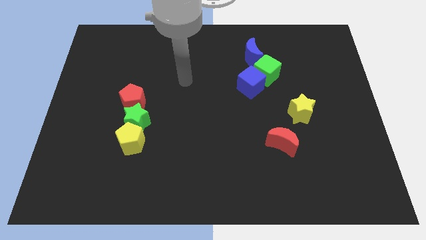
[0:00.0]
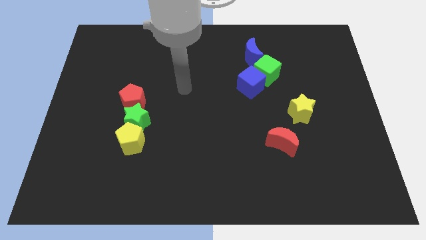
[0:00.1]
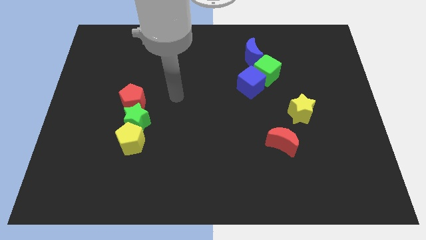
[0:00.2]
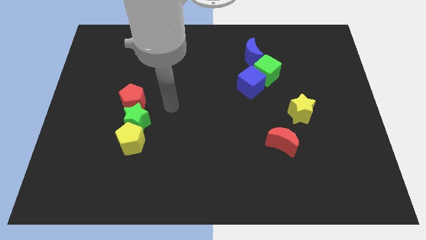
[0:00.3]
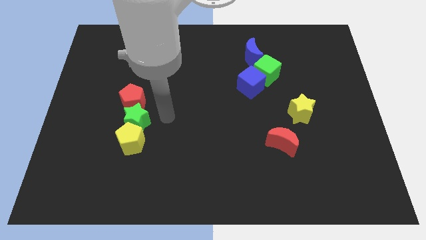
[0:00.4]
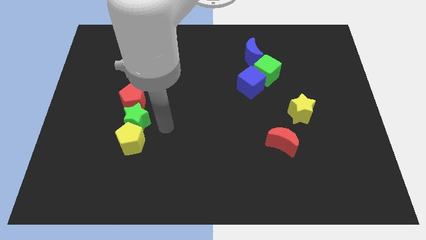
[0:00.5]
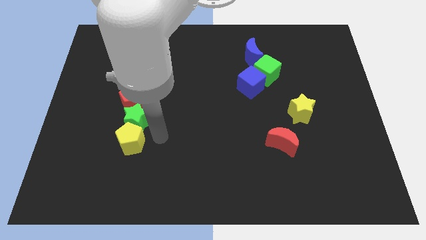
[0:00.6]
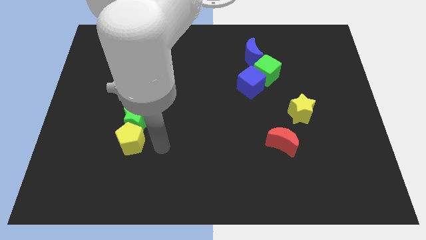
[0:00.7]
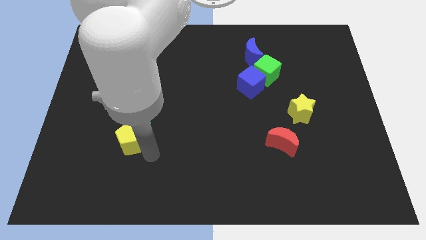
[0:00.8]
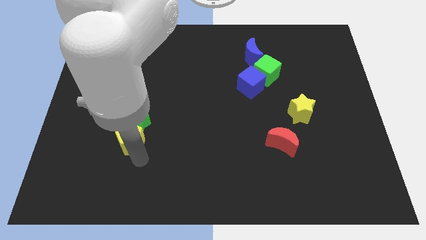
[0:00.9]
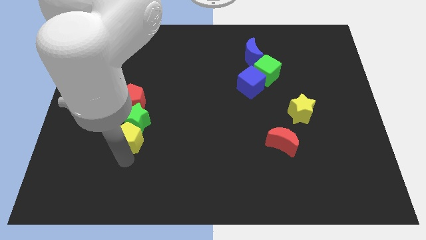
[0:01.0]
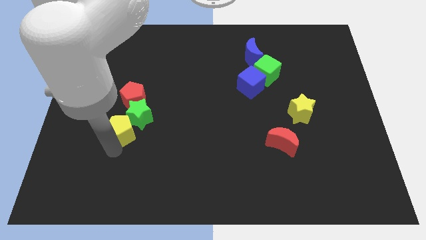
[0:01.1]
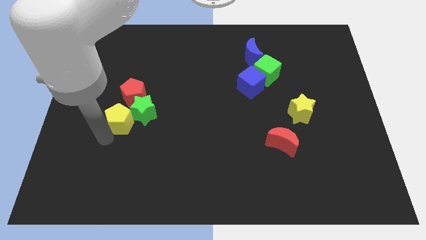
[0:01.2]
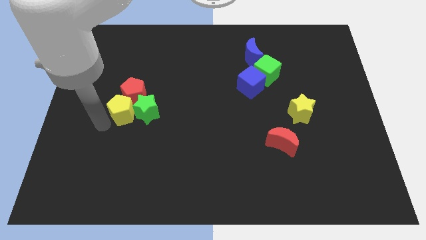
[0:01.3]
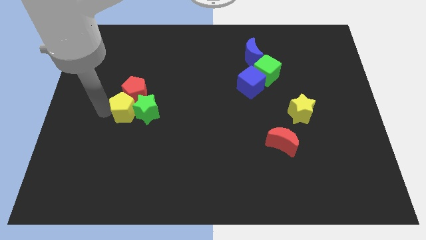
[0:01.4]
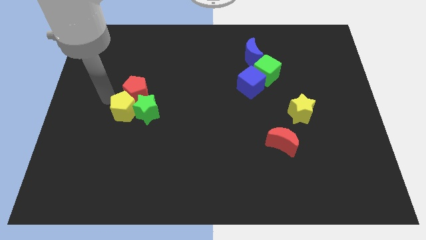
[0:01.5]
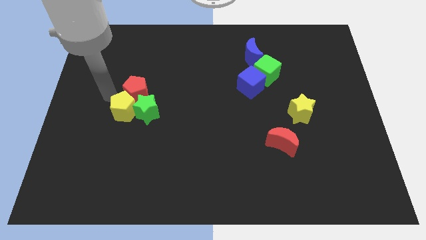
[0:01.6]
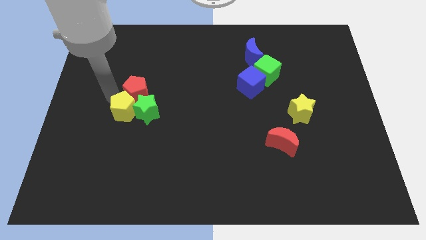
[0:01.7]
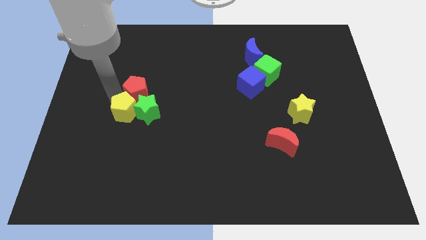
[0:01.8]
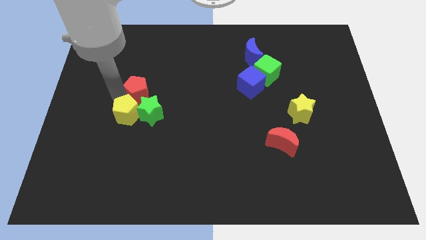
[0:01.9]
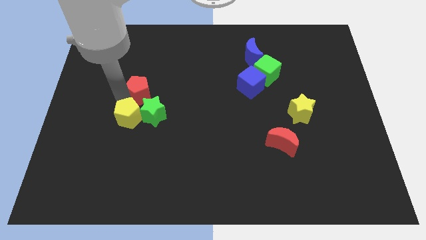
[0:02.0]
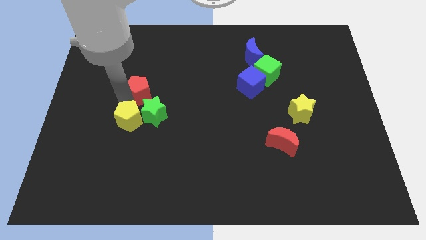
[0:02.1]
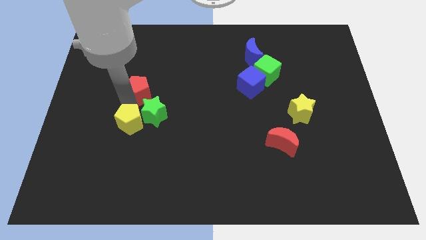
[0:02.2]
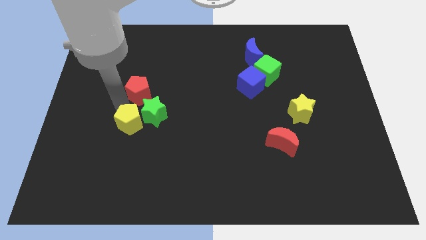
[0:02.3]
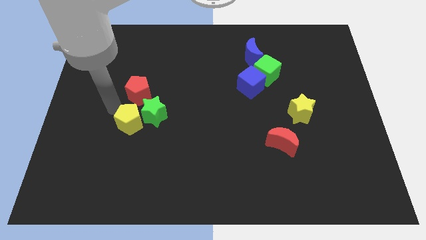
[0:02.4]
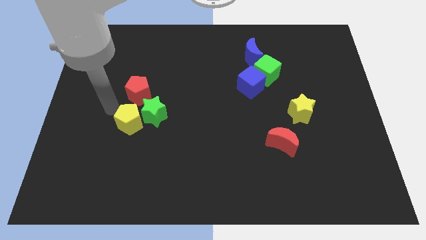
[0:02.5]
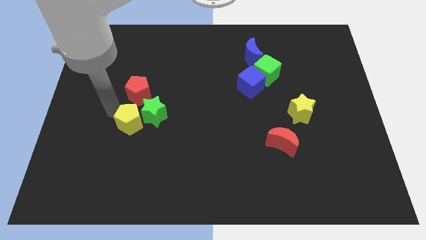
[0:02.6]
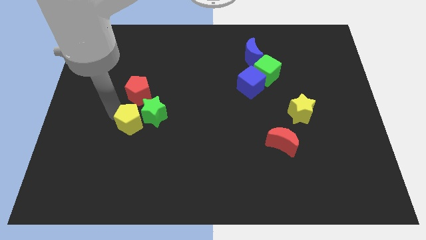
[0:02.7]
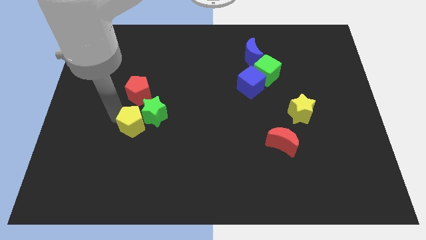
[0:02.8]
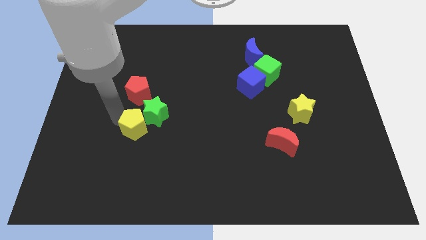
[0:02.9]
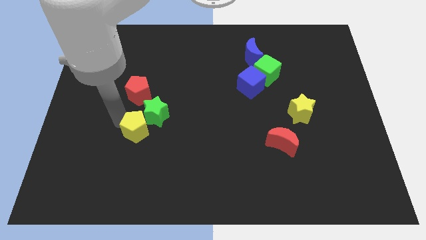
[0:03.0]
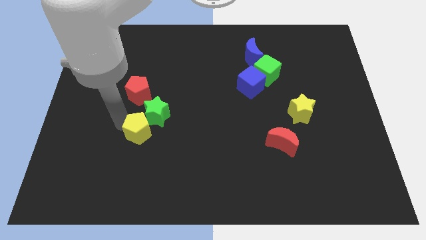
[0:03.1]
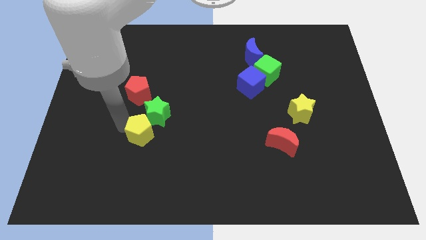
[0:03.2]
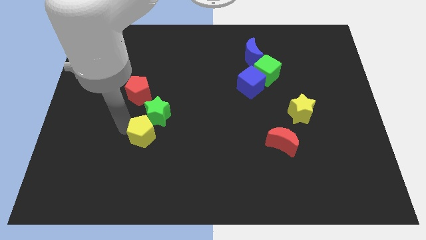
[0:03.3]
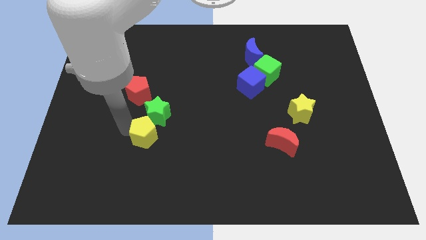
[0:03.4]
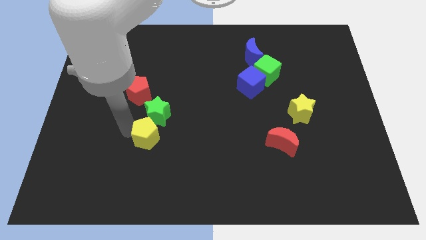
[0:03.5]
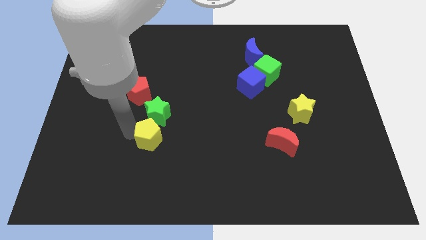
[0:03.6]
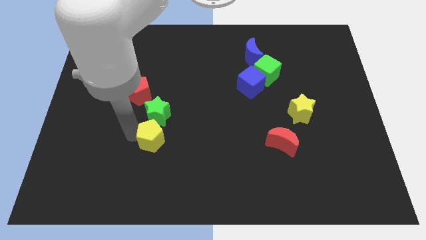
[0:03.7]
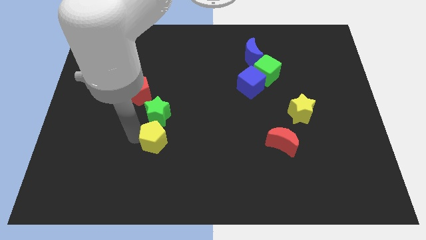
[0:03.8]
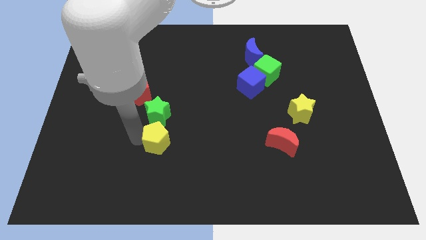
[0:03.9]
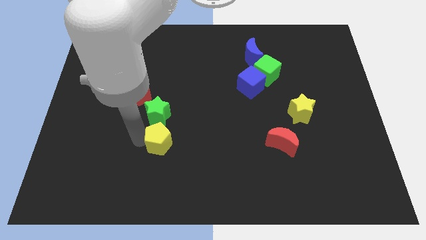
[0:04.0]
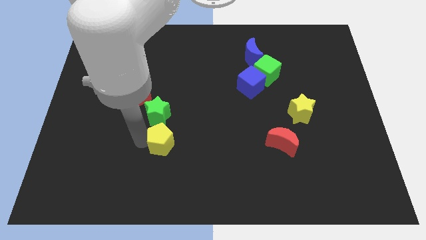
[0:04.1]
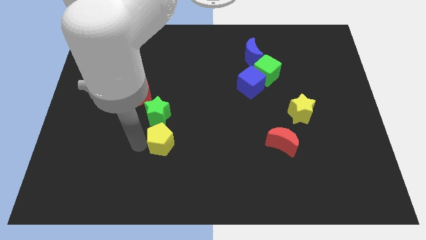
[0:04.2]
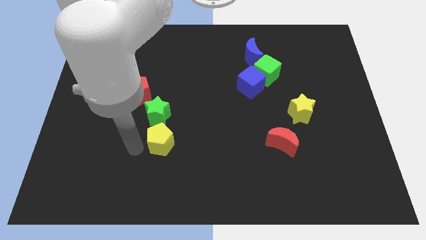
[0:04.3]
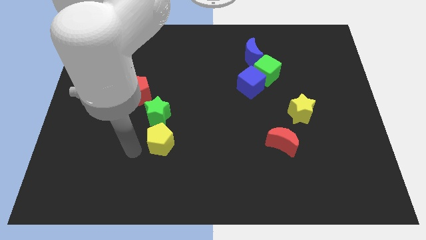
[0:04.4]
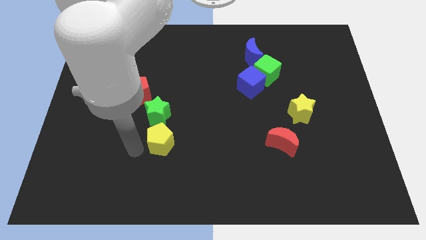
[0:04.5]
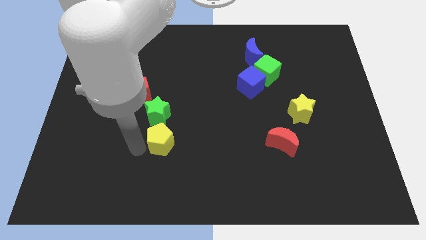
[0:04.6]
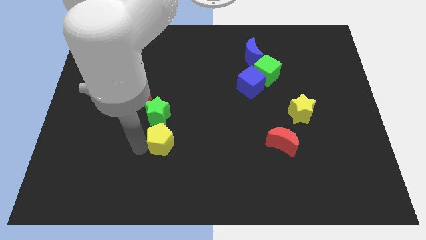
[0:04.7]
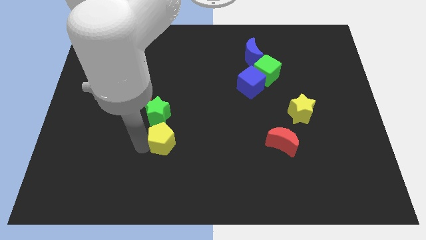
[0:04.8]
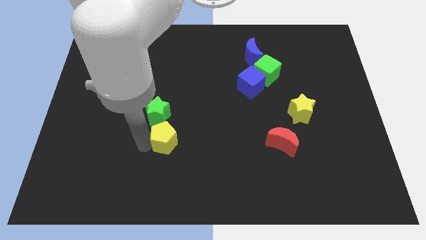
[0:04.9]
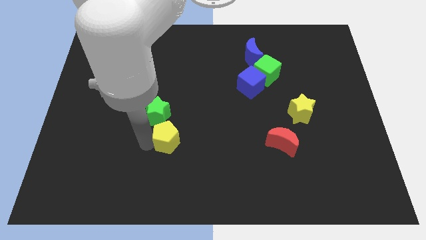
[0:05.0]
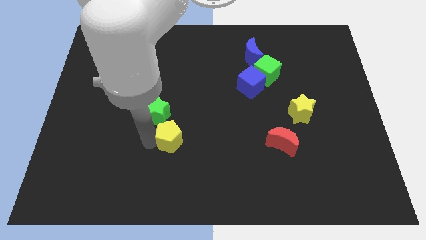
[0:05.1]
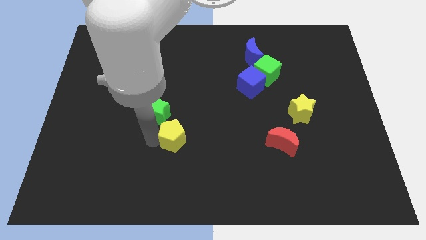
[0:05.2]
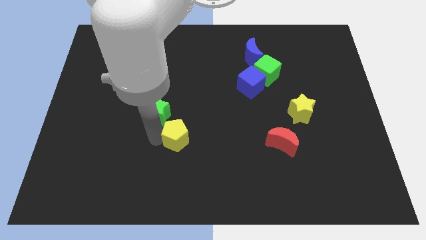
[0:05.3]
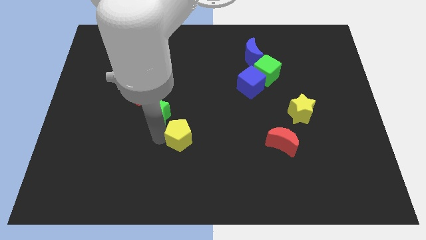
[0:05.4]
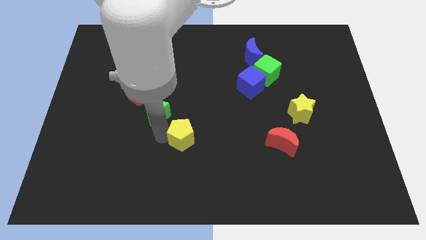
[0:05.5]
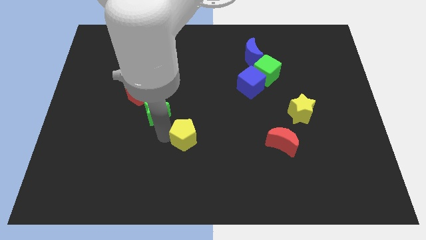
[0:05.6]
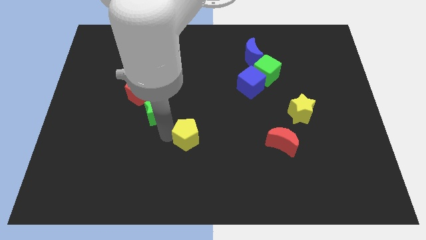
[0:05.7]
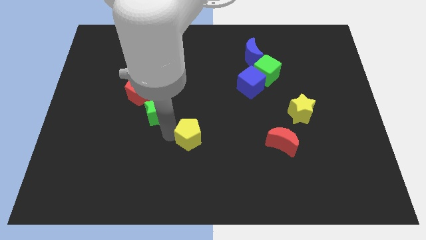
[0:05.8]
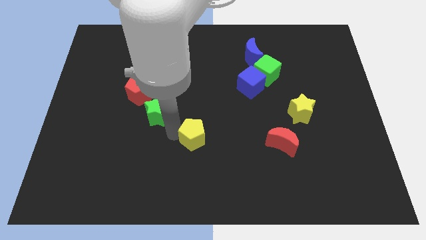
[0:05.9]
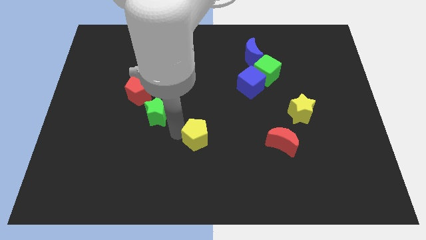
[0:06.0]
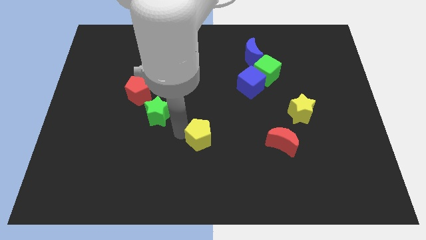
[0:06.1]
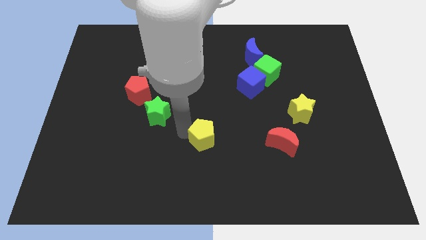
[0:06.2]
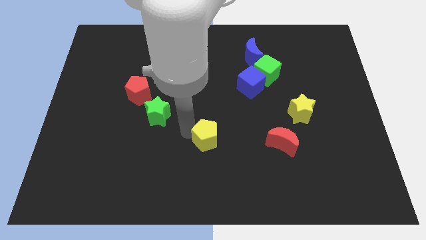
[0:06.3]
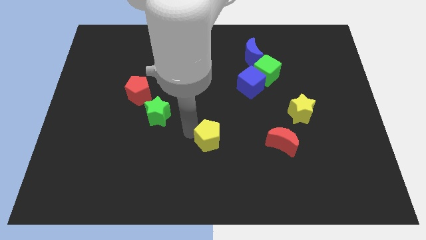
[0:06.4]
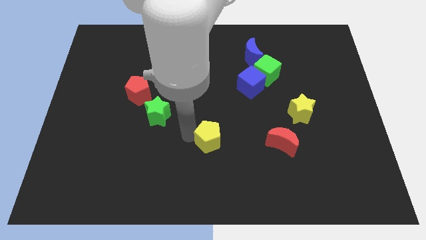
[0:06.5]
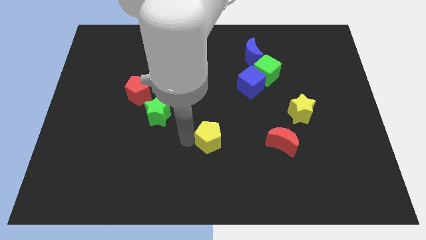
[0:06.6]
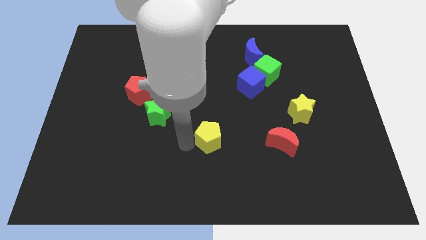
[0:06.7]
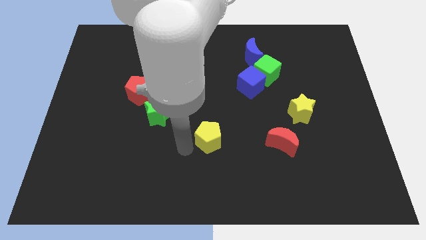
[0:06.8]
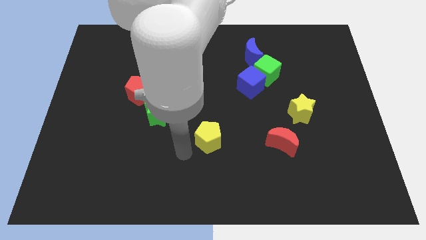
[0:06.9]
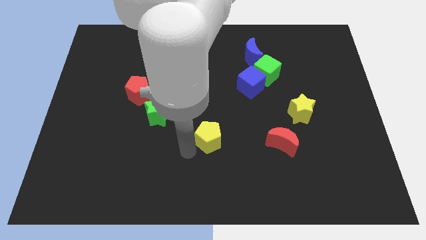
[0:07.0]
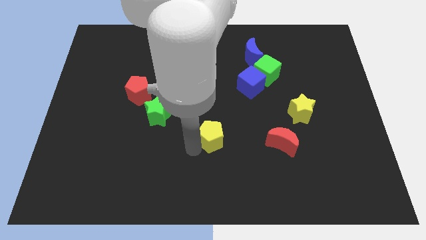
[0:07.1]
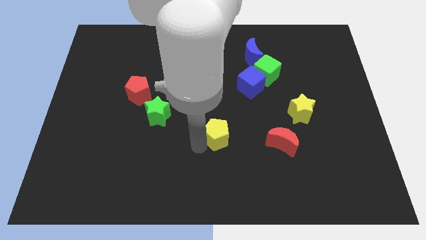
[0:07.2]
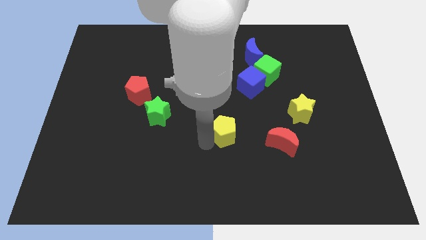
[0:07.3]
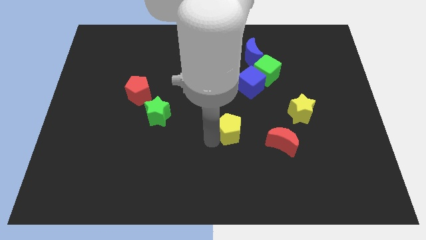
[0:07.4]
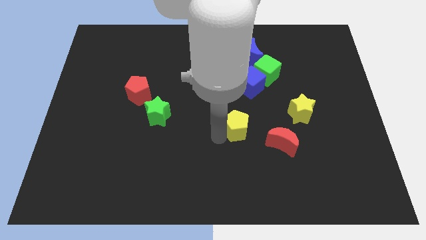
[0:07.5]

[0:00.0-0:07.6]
push the yellow pentagon to the top left of the red moon
